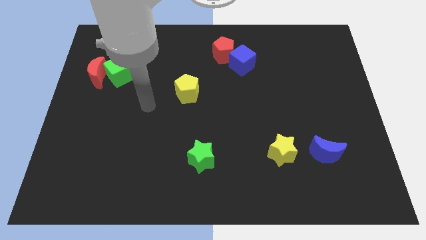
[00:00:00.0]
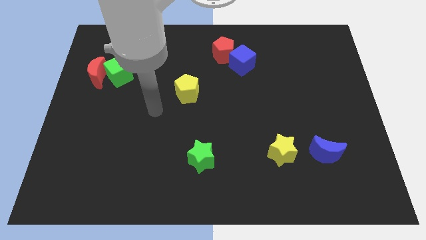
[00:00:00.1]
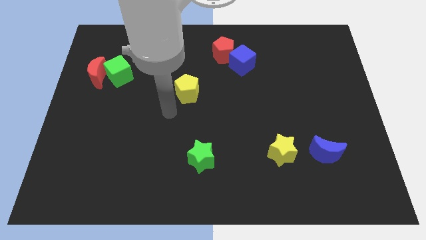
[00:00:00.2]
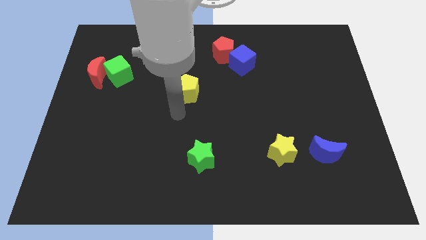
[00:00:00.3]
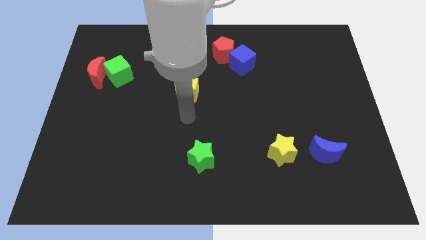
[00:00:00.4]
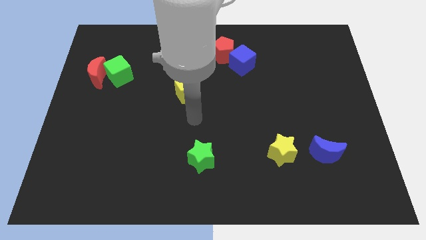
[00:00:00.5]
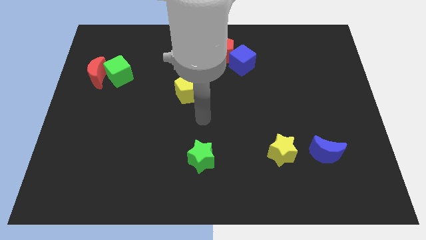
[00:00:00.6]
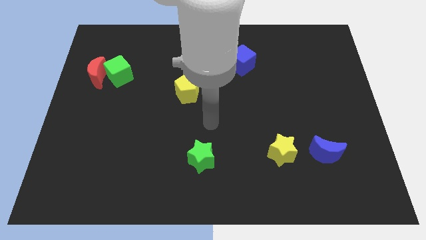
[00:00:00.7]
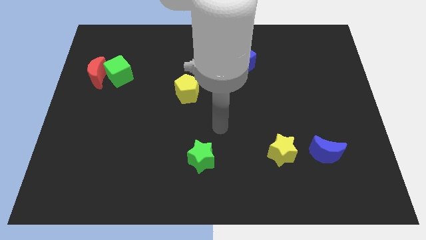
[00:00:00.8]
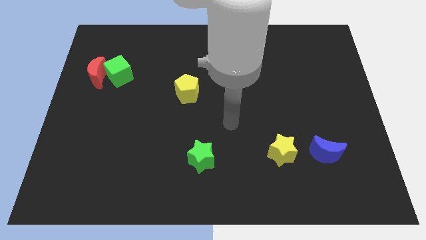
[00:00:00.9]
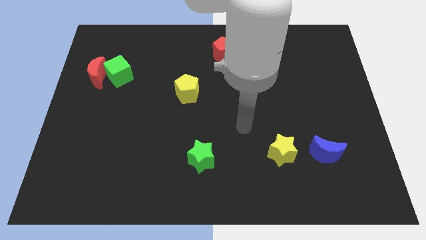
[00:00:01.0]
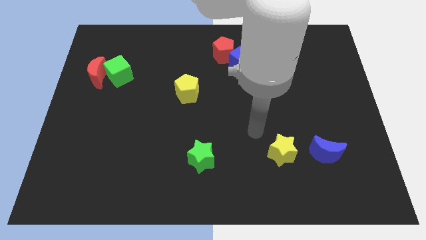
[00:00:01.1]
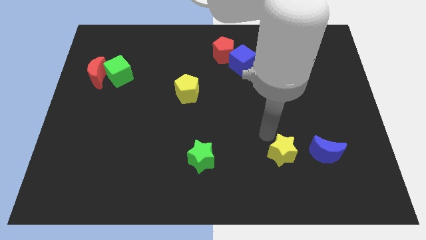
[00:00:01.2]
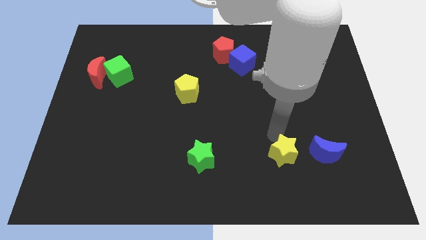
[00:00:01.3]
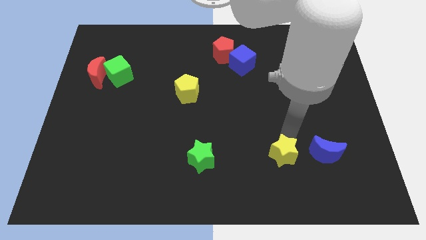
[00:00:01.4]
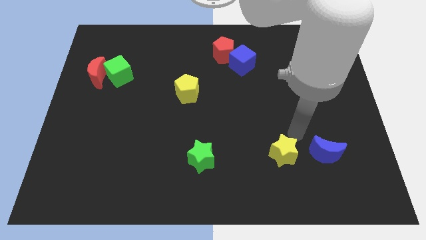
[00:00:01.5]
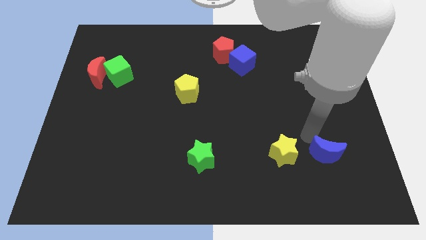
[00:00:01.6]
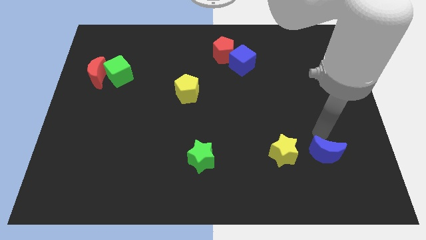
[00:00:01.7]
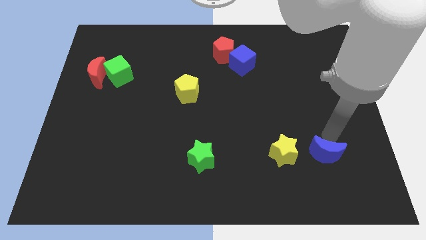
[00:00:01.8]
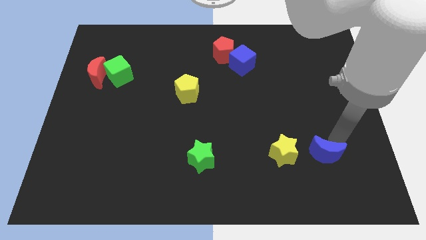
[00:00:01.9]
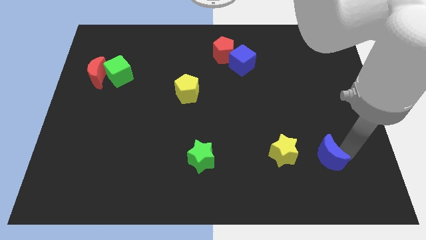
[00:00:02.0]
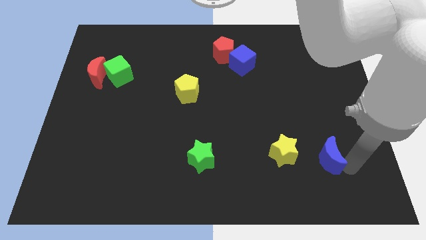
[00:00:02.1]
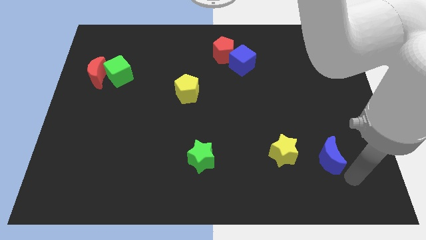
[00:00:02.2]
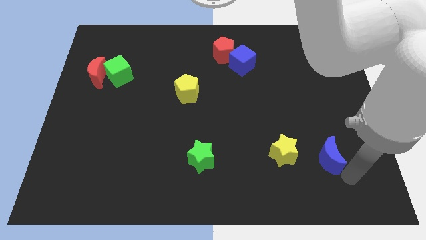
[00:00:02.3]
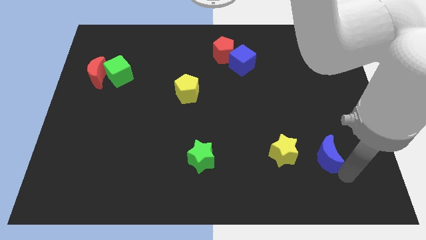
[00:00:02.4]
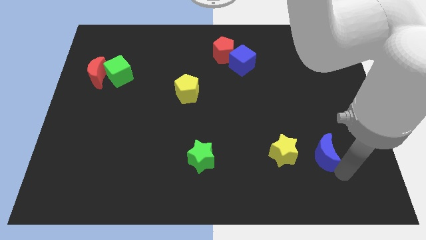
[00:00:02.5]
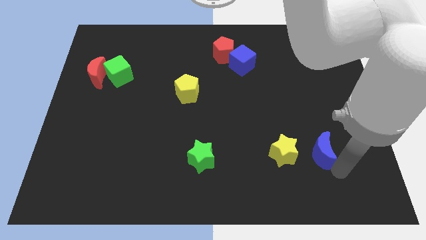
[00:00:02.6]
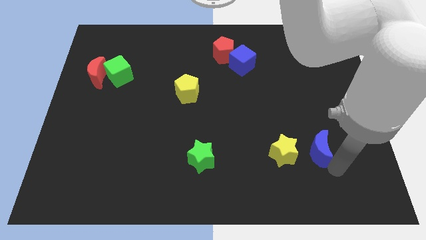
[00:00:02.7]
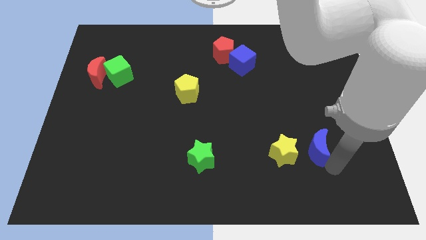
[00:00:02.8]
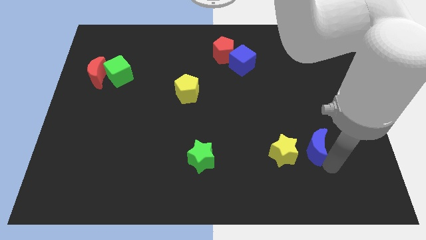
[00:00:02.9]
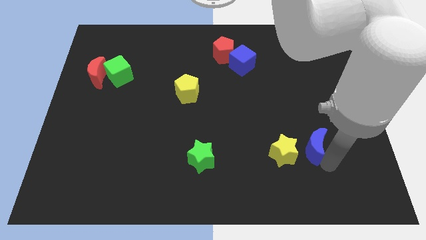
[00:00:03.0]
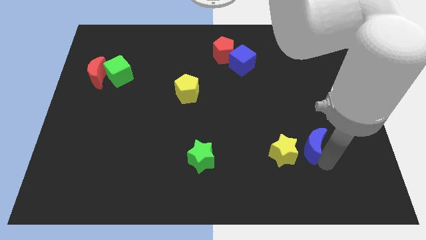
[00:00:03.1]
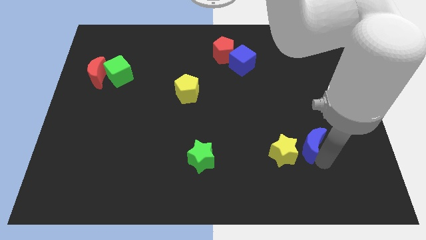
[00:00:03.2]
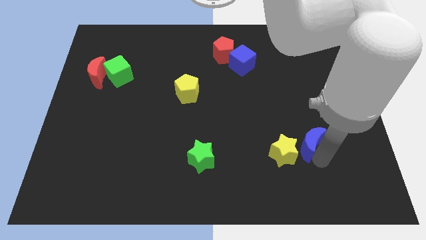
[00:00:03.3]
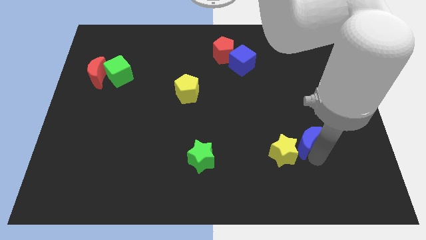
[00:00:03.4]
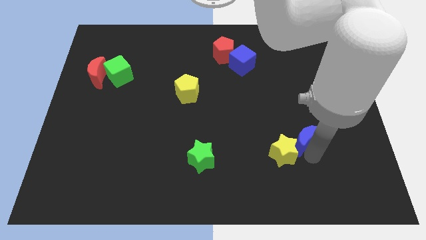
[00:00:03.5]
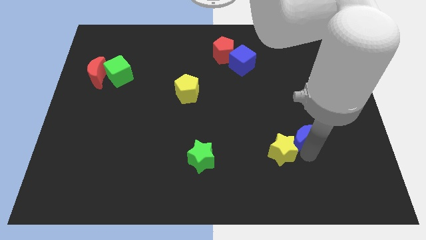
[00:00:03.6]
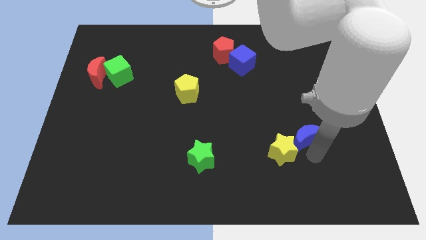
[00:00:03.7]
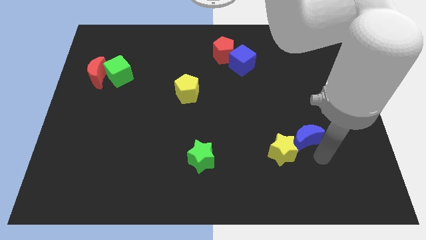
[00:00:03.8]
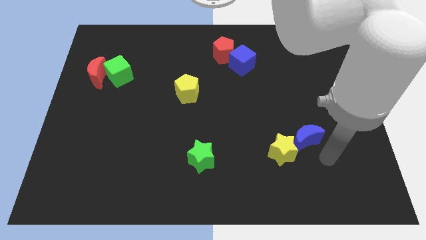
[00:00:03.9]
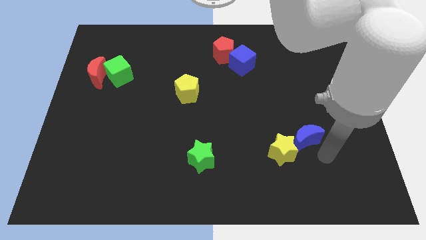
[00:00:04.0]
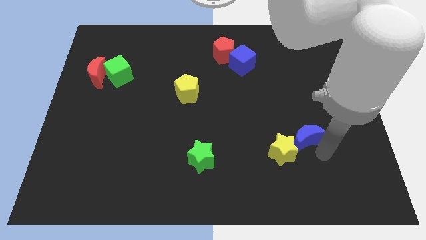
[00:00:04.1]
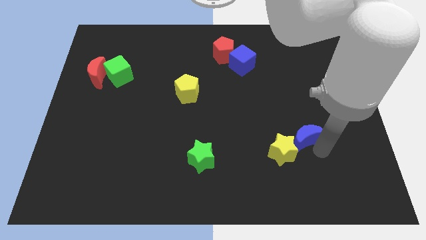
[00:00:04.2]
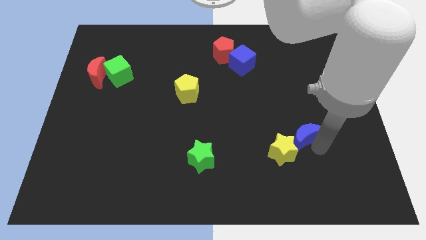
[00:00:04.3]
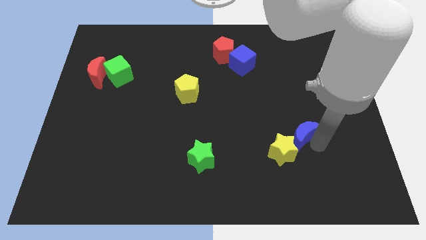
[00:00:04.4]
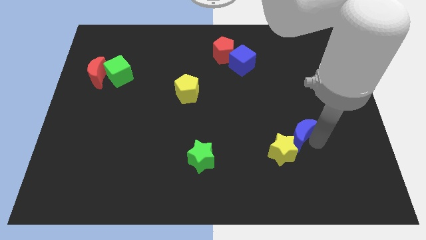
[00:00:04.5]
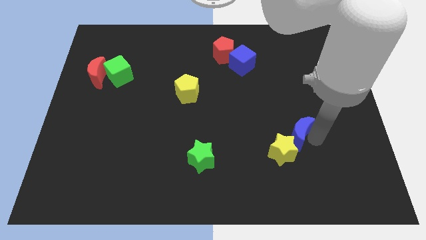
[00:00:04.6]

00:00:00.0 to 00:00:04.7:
move the blue moon diagonally up and to the left a bit

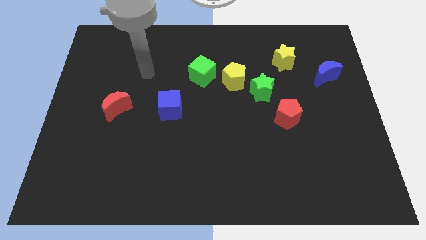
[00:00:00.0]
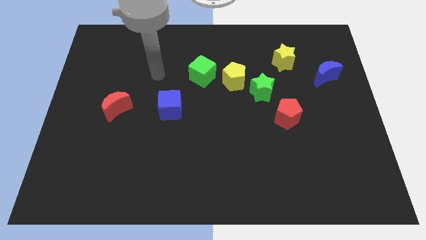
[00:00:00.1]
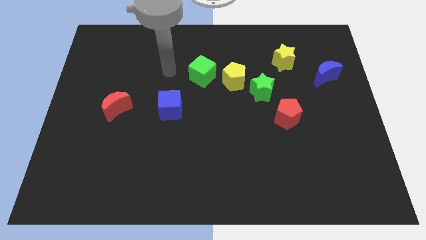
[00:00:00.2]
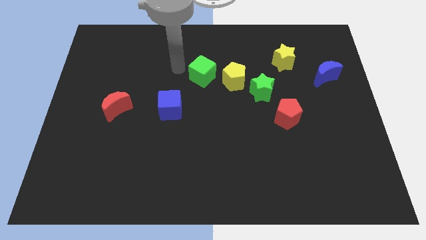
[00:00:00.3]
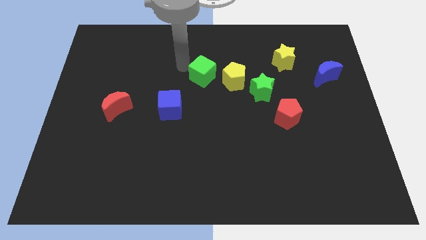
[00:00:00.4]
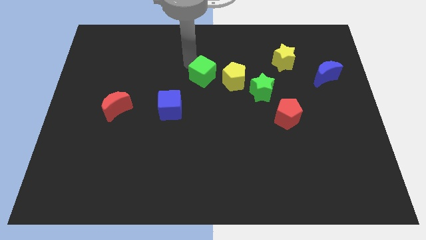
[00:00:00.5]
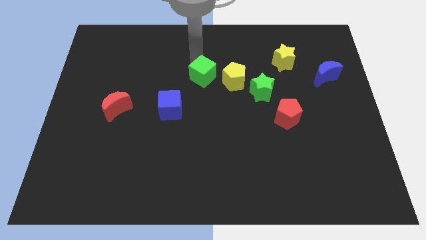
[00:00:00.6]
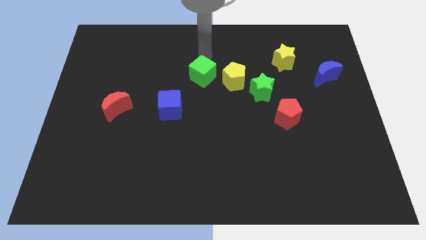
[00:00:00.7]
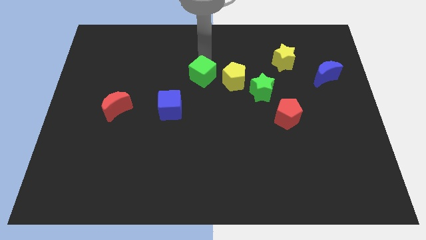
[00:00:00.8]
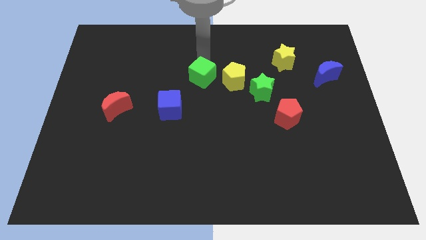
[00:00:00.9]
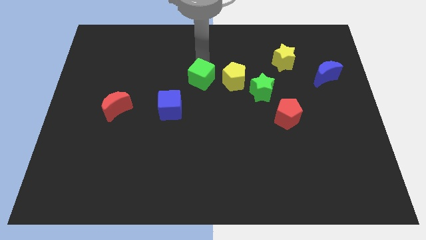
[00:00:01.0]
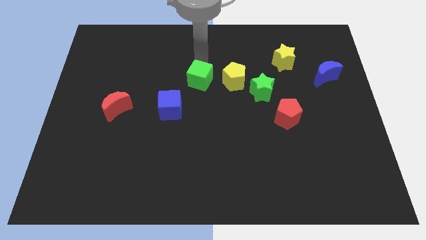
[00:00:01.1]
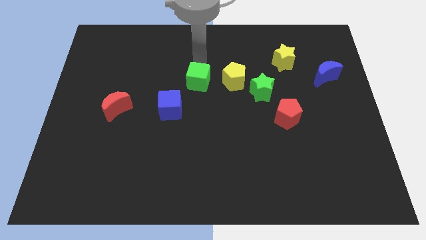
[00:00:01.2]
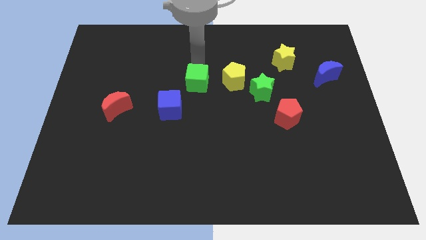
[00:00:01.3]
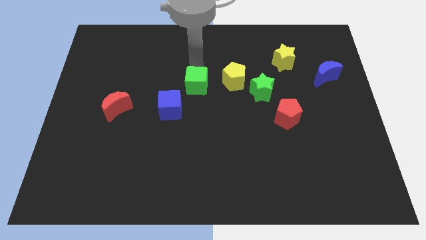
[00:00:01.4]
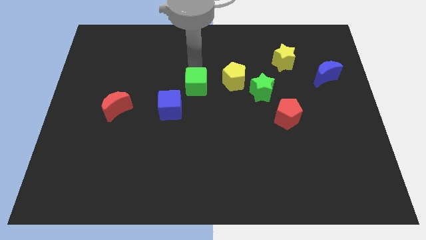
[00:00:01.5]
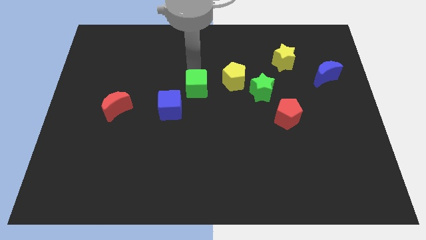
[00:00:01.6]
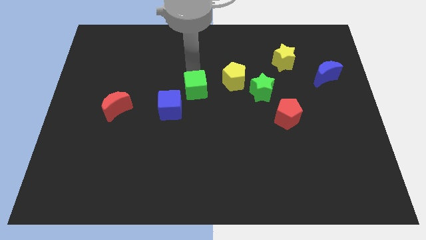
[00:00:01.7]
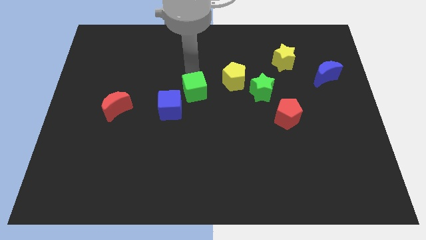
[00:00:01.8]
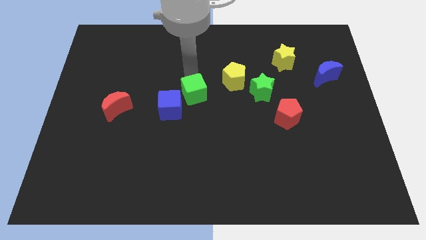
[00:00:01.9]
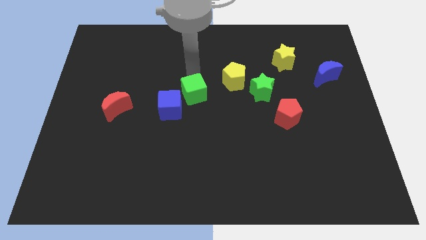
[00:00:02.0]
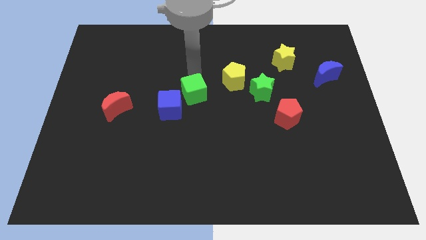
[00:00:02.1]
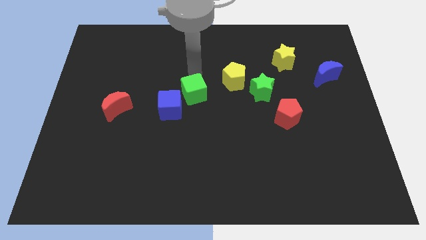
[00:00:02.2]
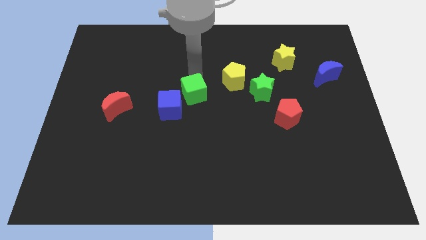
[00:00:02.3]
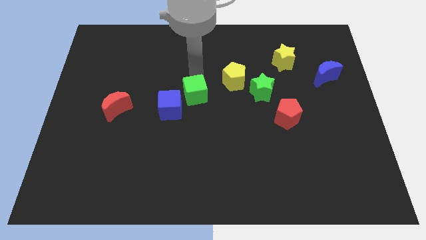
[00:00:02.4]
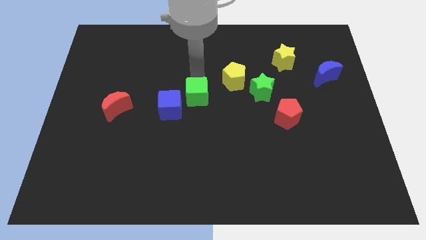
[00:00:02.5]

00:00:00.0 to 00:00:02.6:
slightly move the green cube downwards

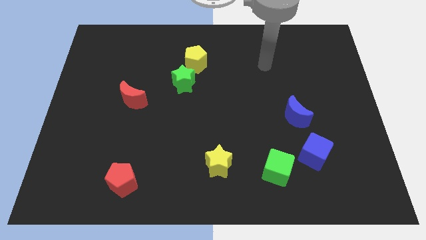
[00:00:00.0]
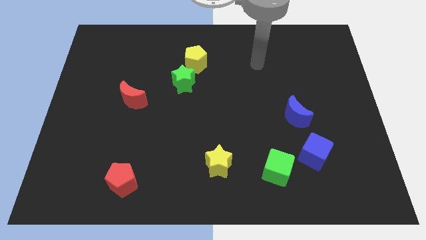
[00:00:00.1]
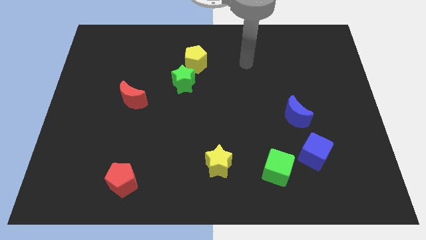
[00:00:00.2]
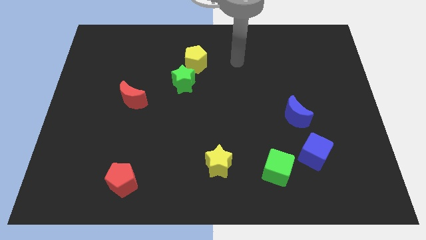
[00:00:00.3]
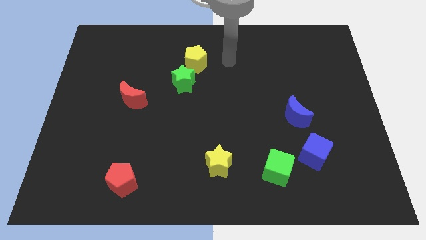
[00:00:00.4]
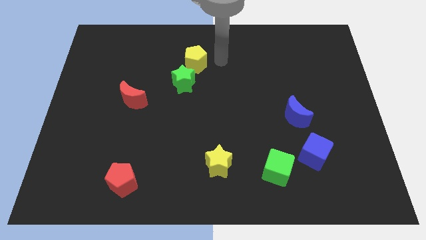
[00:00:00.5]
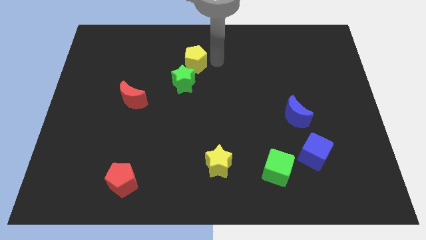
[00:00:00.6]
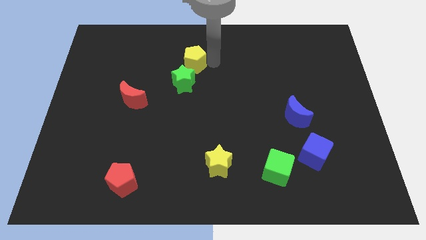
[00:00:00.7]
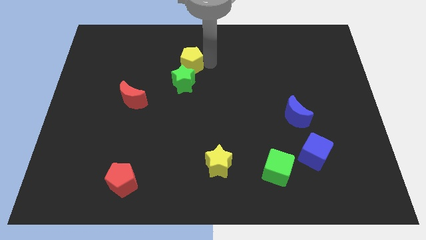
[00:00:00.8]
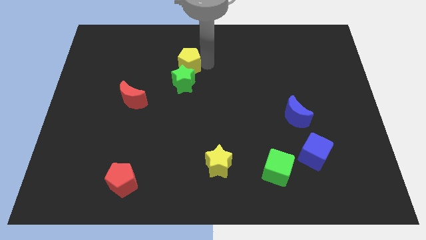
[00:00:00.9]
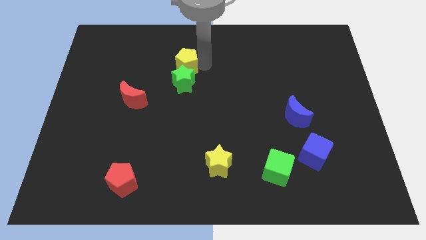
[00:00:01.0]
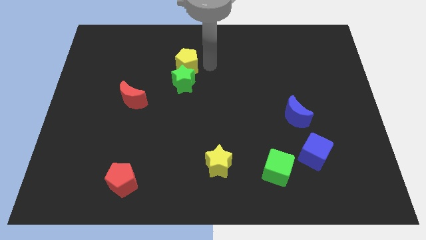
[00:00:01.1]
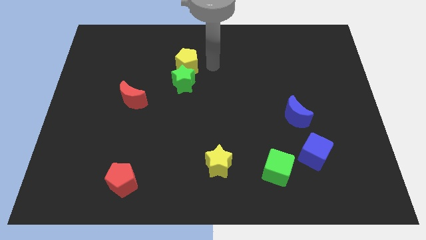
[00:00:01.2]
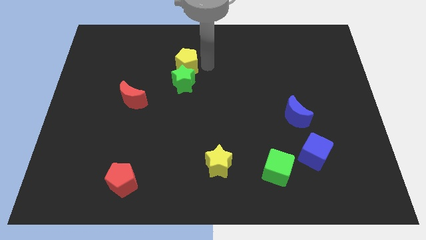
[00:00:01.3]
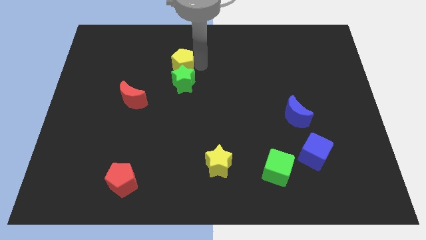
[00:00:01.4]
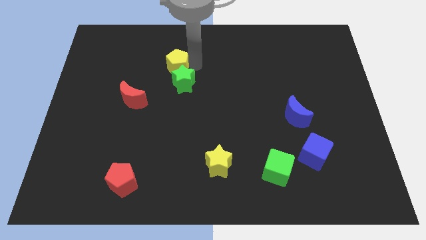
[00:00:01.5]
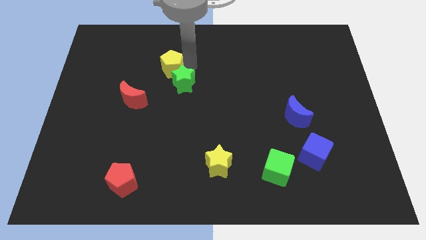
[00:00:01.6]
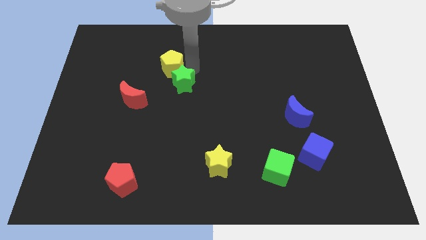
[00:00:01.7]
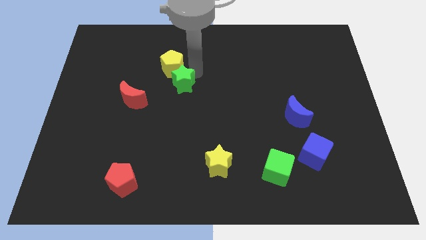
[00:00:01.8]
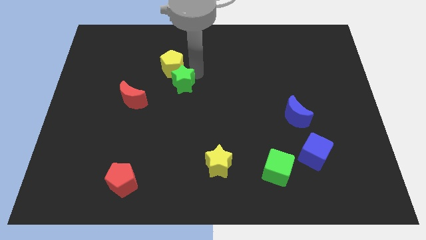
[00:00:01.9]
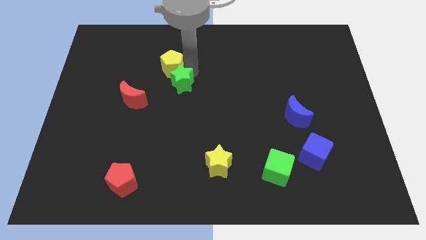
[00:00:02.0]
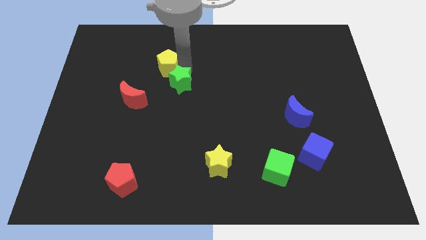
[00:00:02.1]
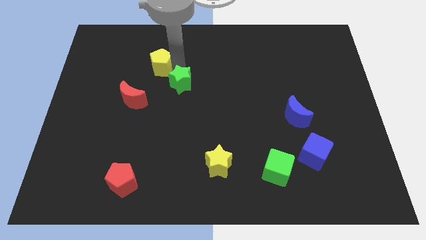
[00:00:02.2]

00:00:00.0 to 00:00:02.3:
slightly move the yellow pentagon to the left
